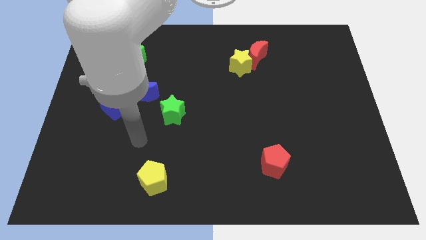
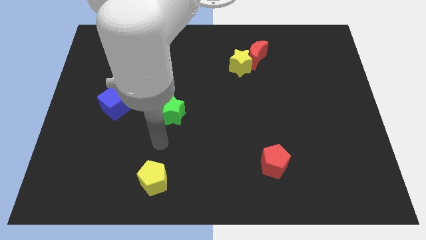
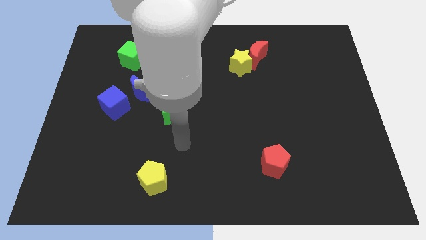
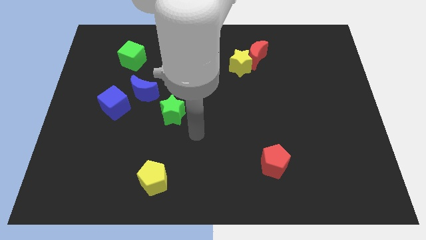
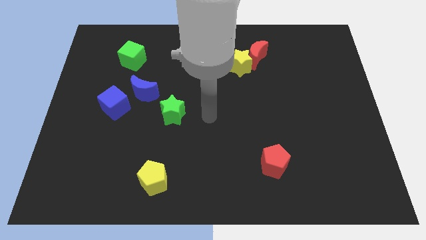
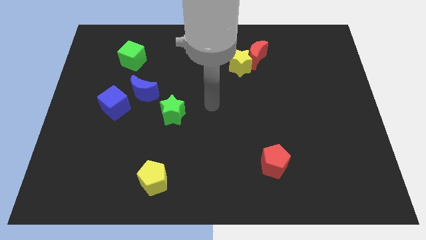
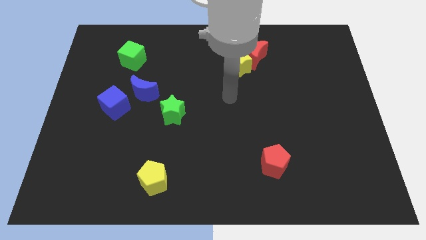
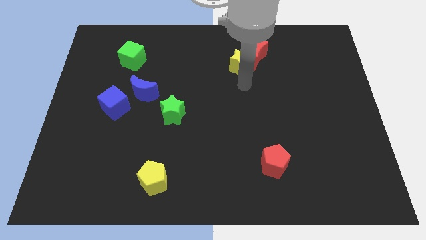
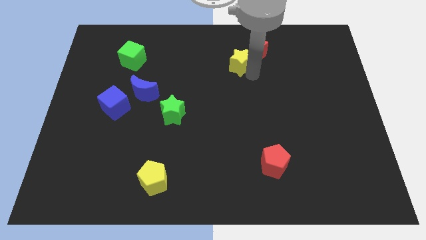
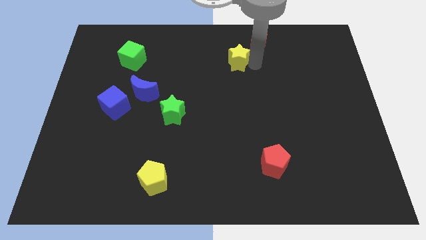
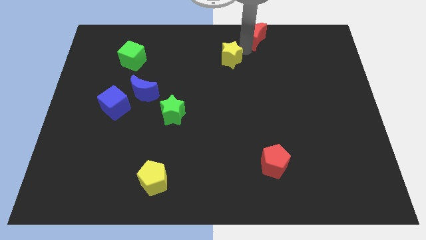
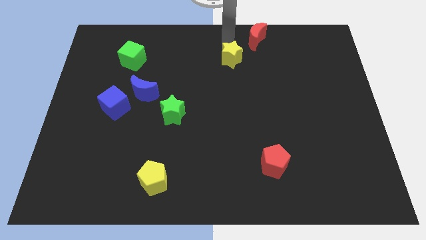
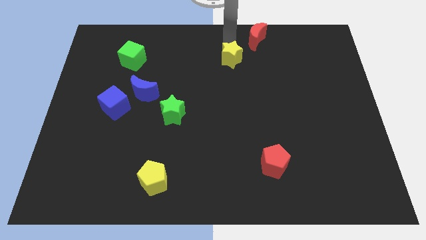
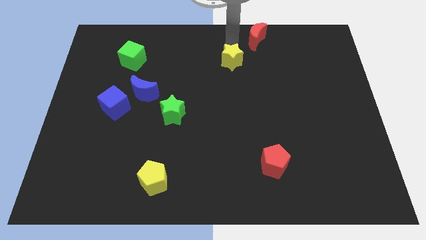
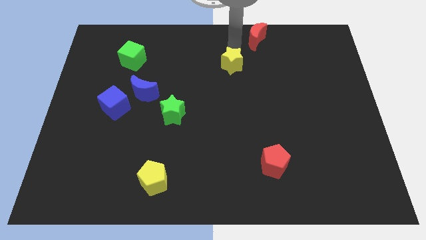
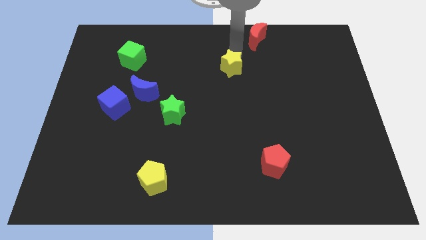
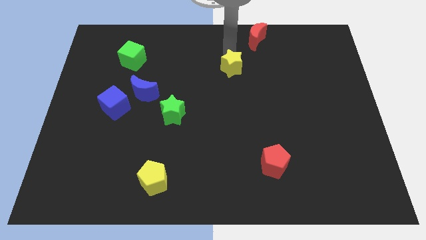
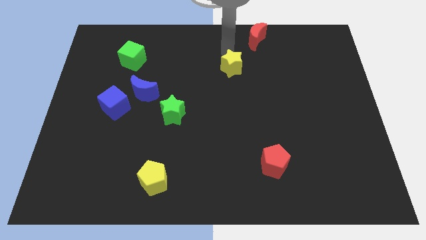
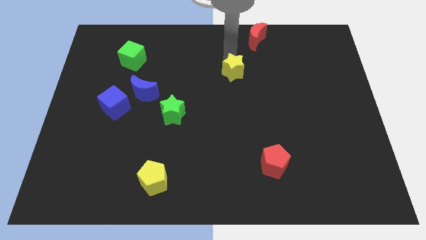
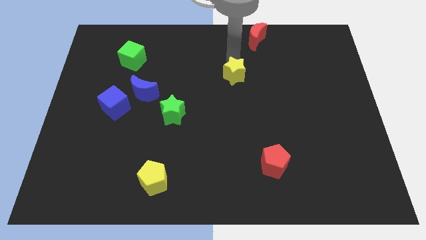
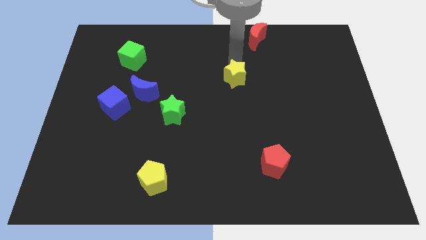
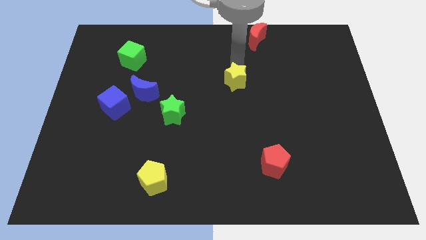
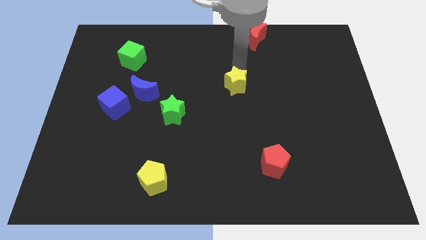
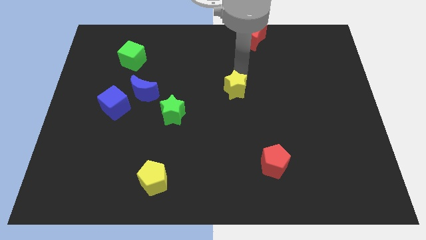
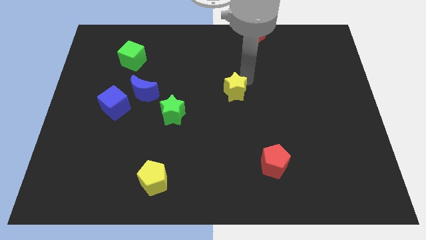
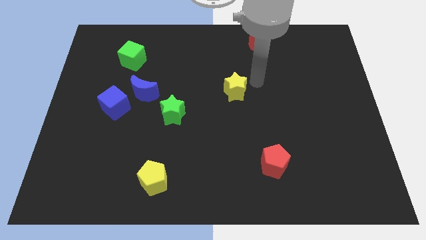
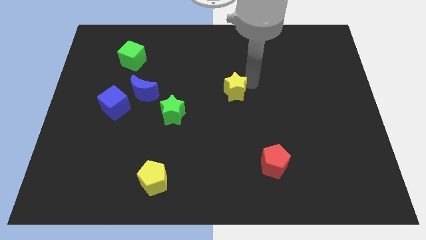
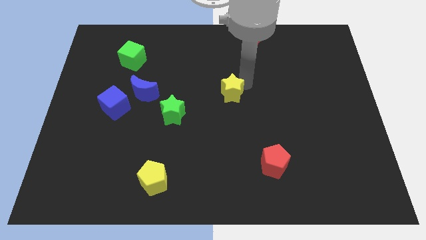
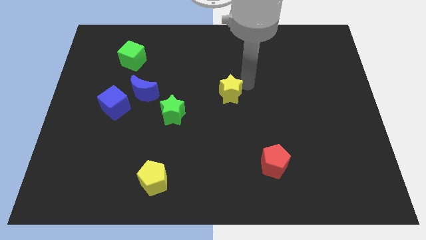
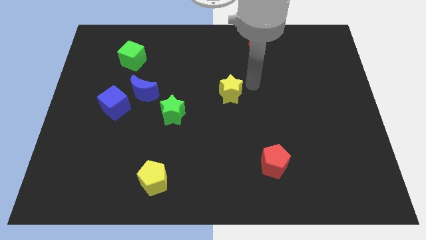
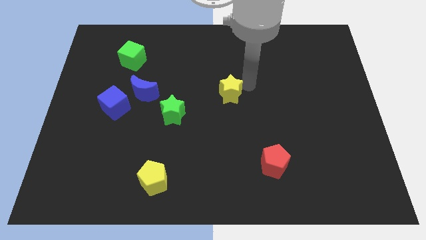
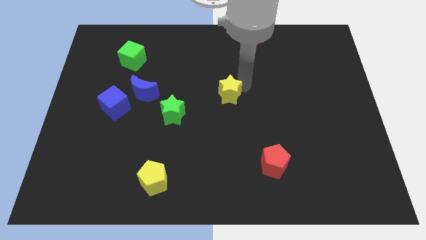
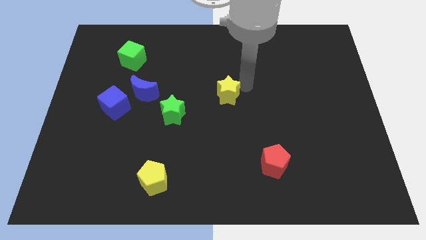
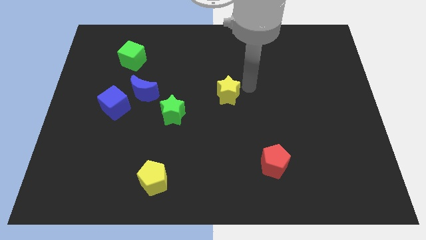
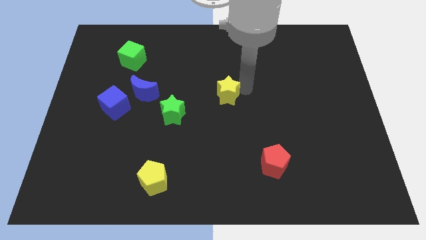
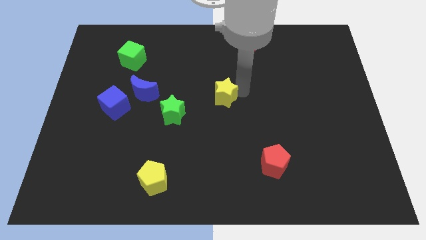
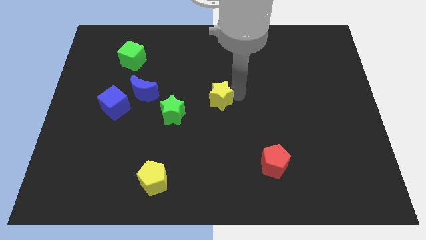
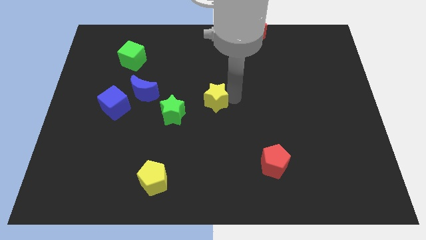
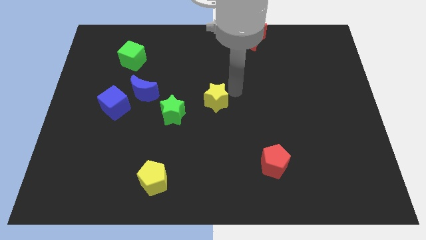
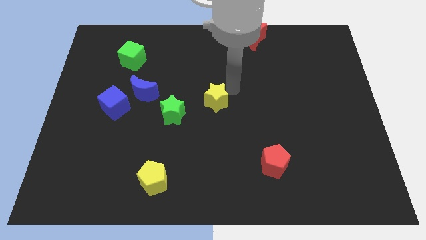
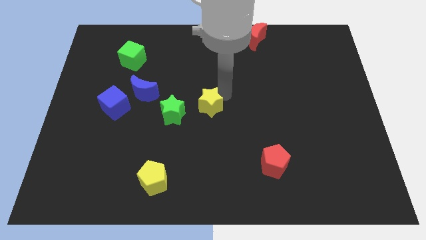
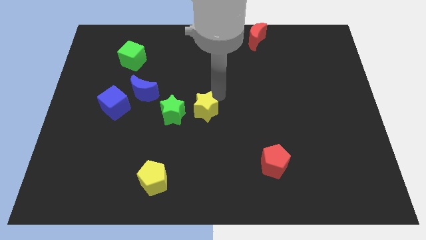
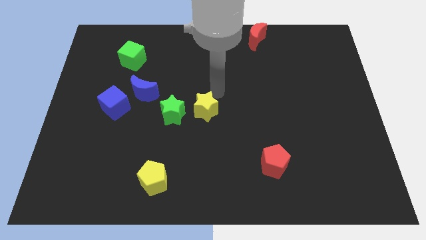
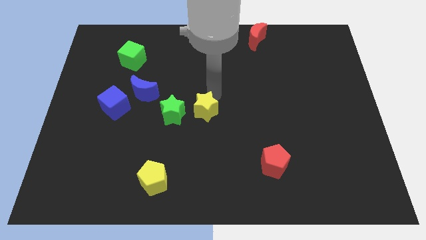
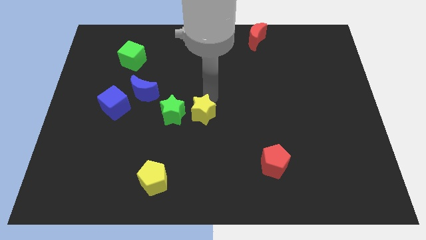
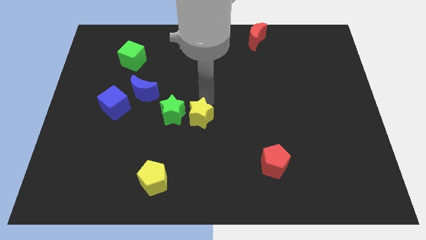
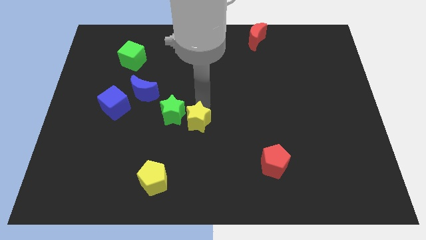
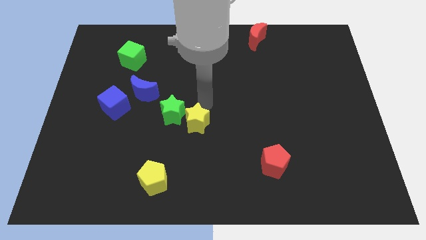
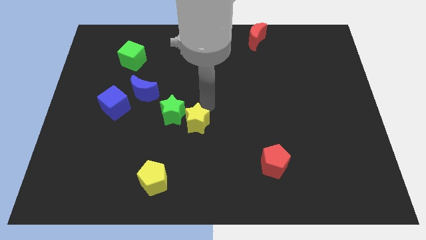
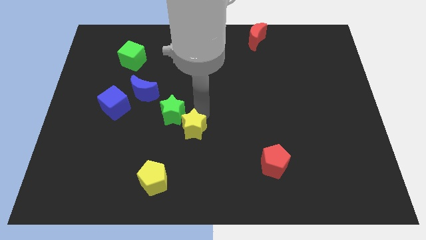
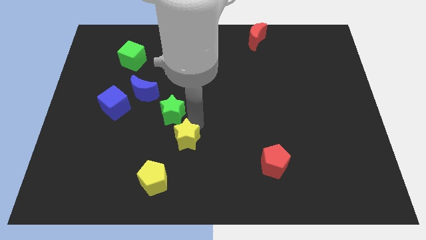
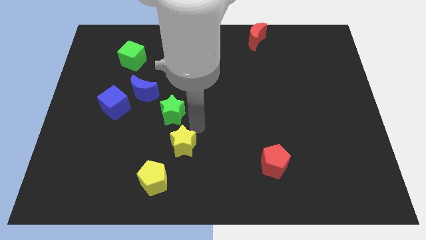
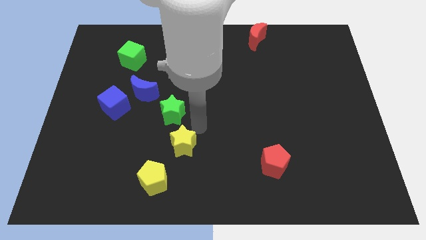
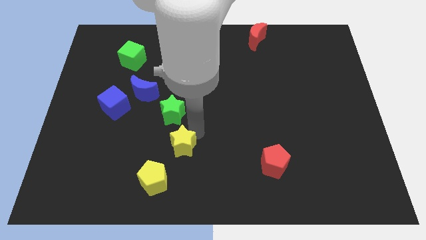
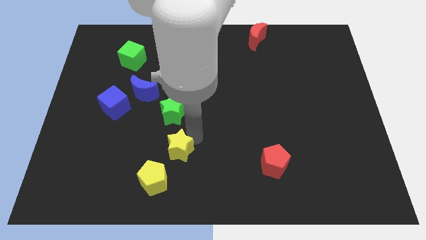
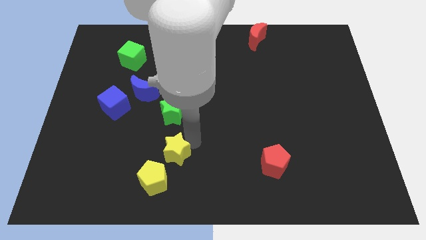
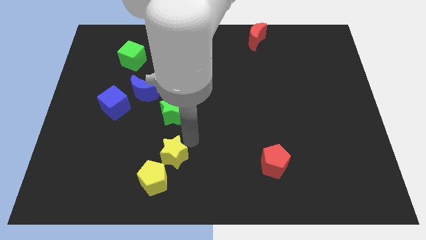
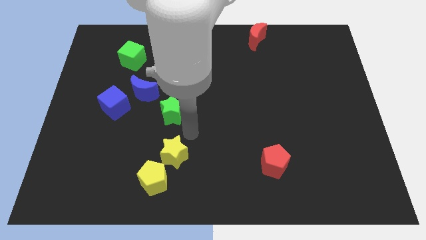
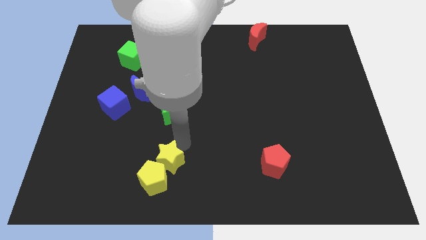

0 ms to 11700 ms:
put the yellow star close to the yellow pentagon
